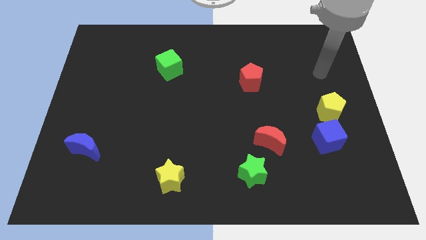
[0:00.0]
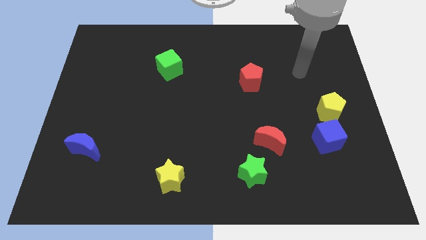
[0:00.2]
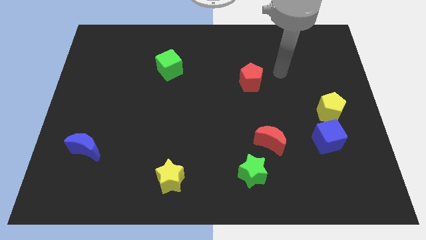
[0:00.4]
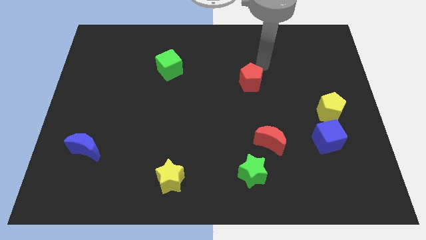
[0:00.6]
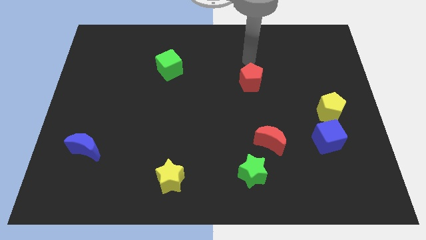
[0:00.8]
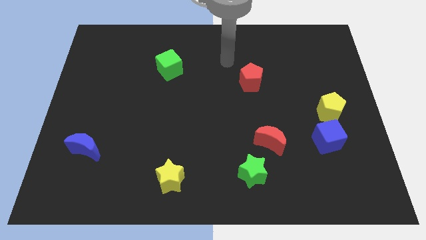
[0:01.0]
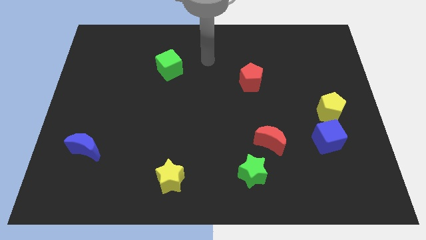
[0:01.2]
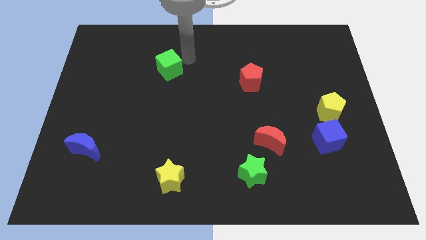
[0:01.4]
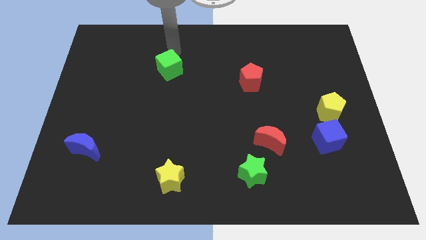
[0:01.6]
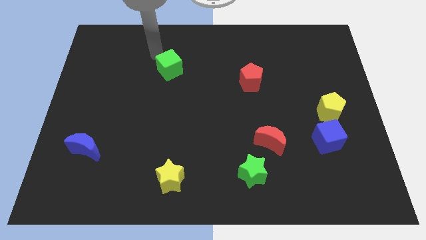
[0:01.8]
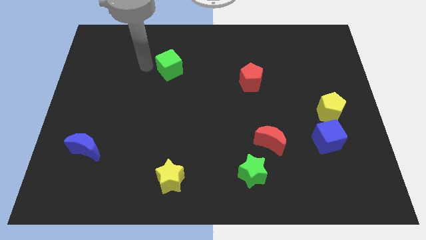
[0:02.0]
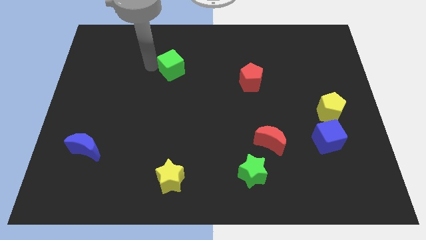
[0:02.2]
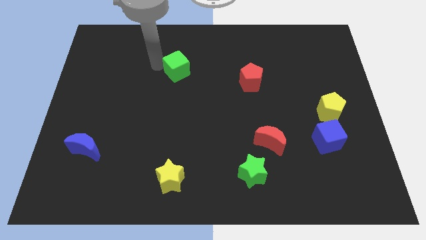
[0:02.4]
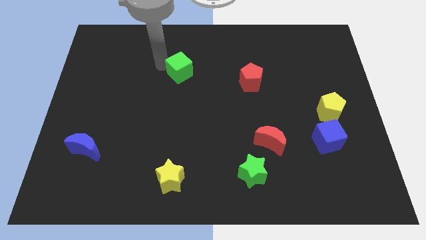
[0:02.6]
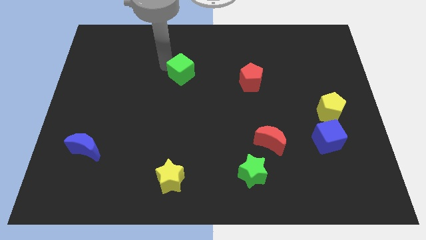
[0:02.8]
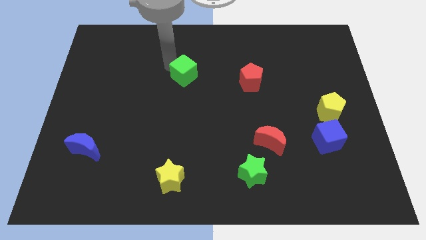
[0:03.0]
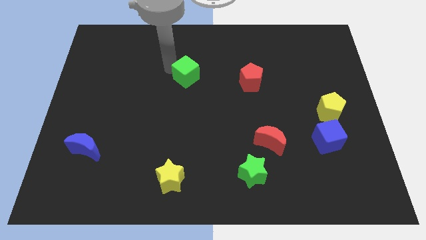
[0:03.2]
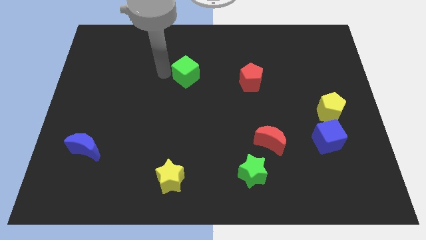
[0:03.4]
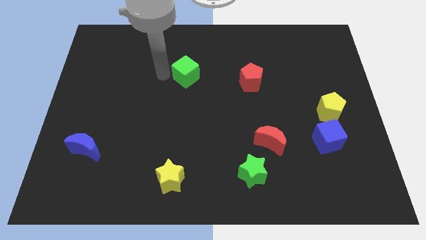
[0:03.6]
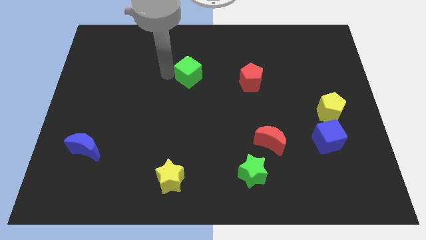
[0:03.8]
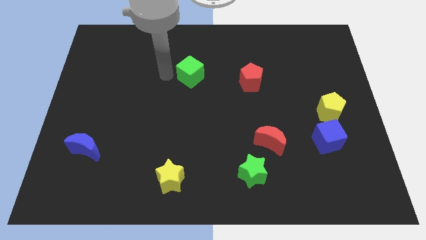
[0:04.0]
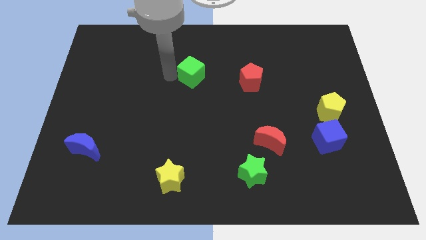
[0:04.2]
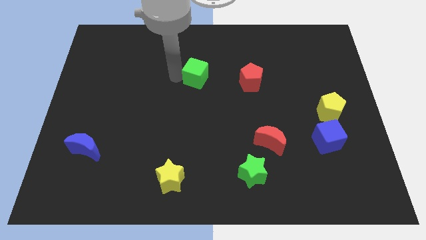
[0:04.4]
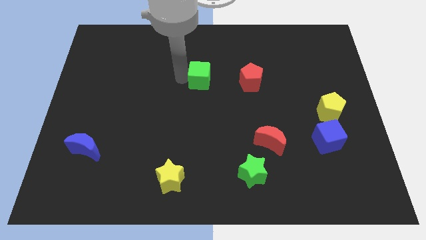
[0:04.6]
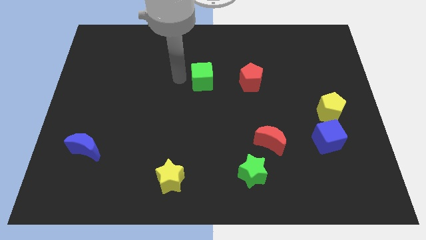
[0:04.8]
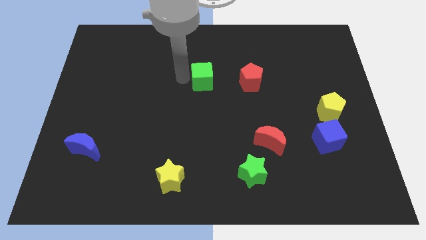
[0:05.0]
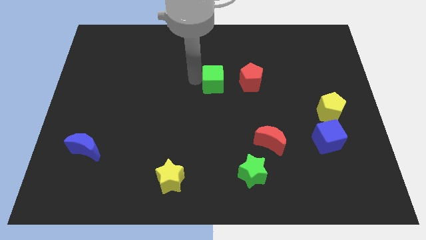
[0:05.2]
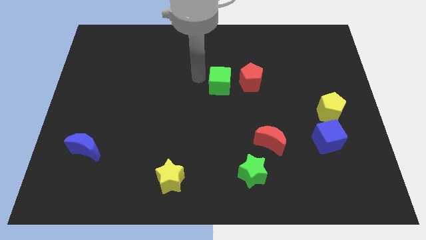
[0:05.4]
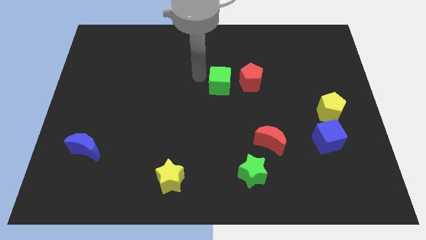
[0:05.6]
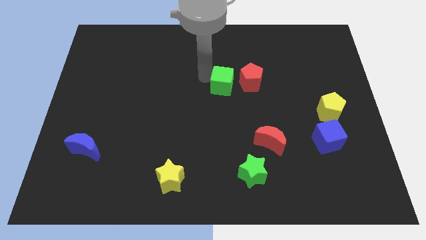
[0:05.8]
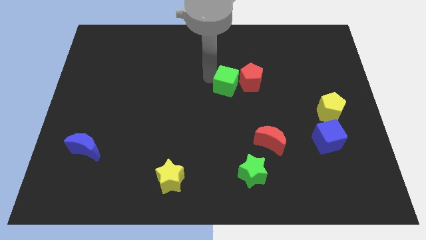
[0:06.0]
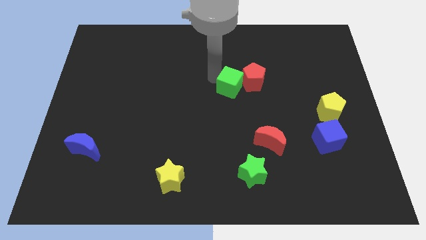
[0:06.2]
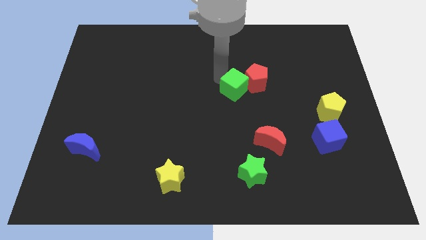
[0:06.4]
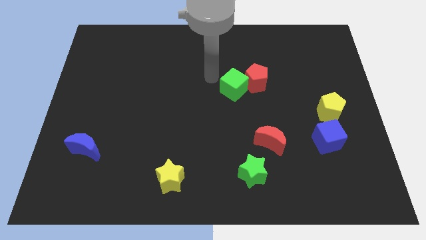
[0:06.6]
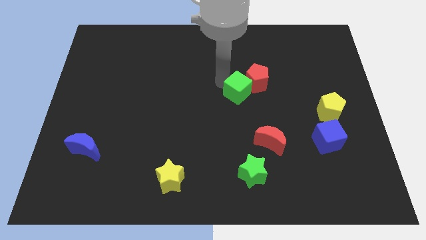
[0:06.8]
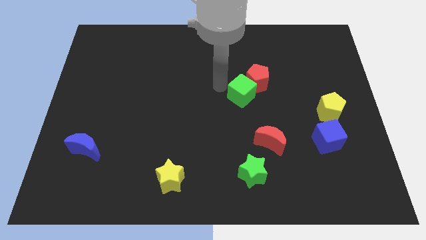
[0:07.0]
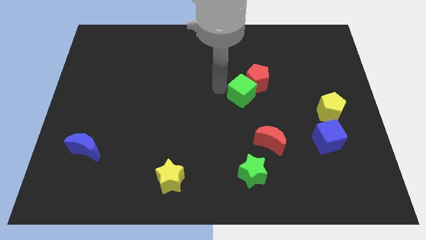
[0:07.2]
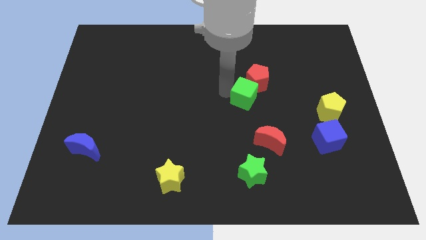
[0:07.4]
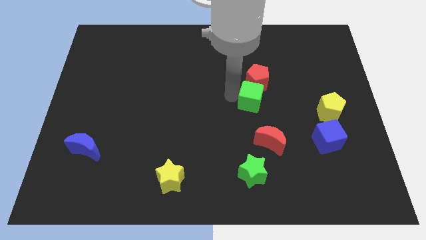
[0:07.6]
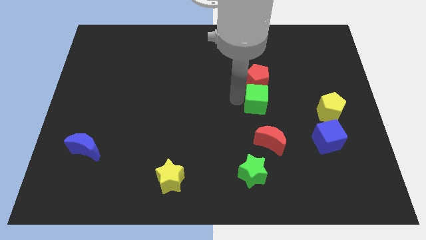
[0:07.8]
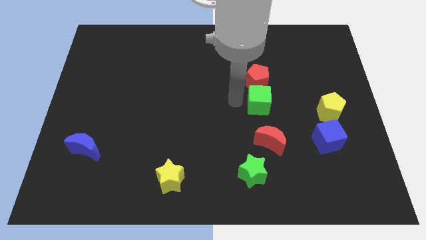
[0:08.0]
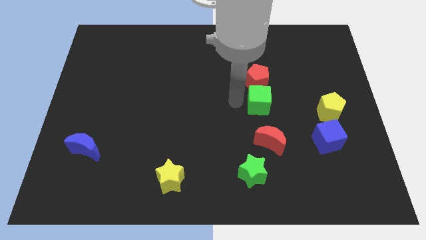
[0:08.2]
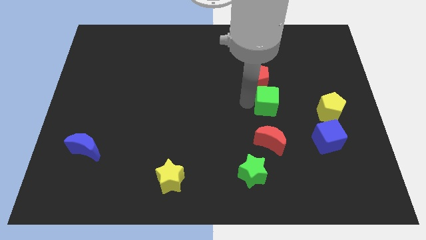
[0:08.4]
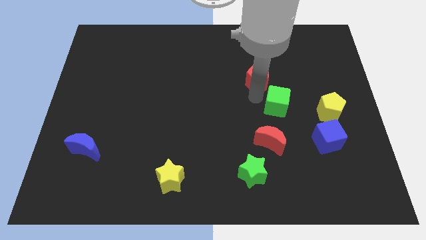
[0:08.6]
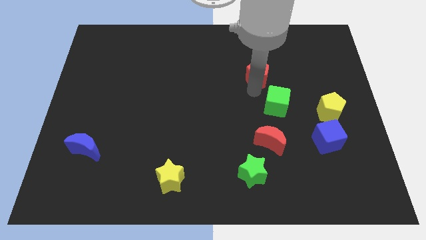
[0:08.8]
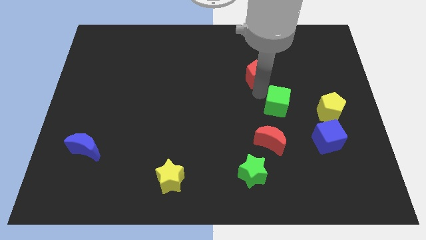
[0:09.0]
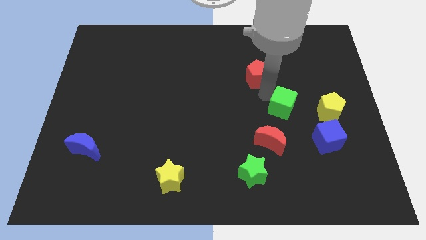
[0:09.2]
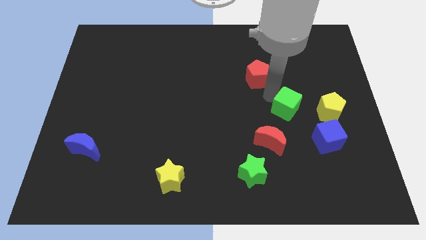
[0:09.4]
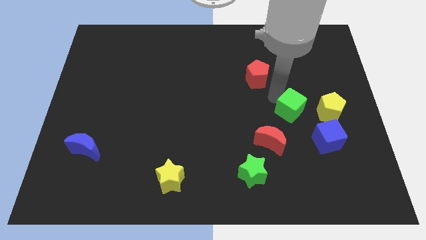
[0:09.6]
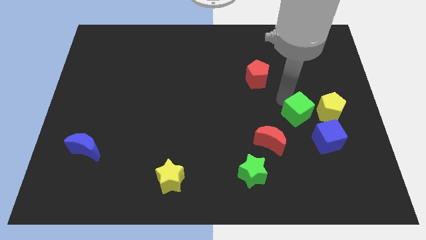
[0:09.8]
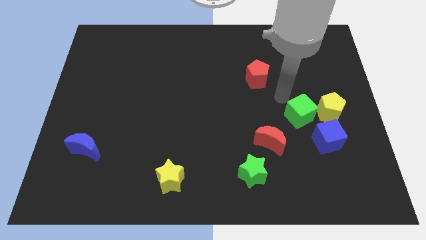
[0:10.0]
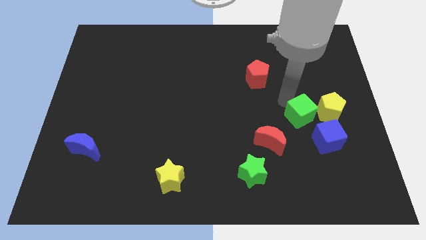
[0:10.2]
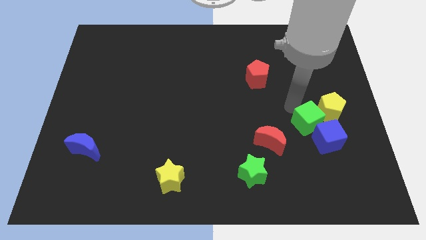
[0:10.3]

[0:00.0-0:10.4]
push the green cube towards the blue cube

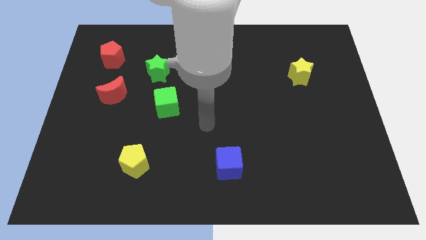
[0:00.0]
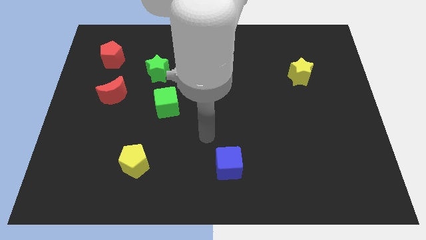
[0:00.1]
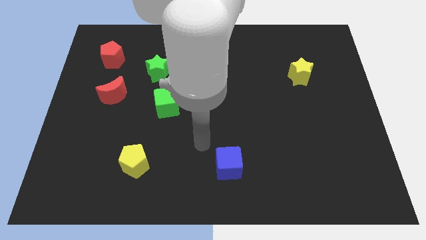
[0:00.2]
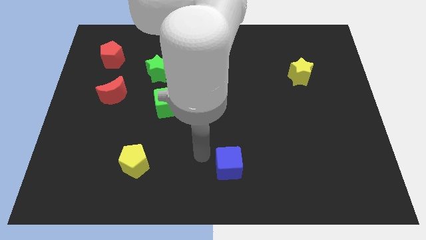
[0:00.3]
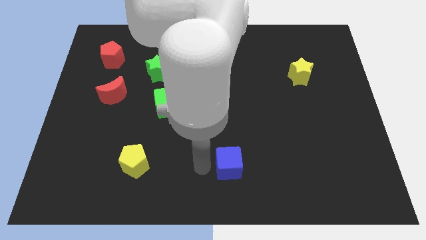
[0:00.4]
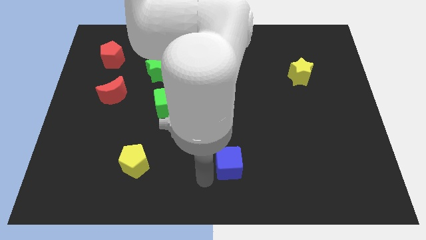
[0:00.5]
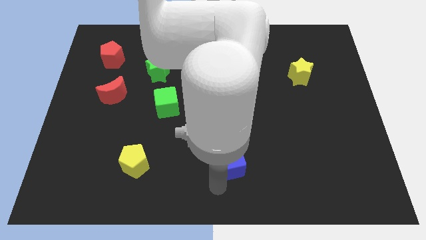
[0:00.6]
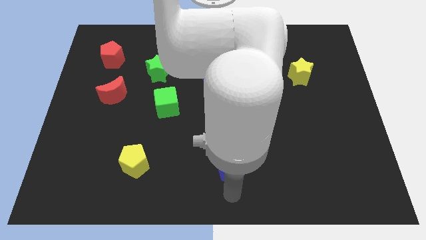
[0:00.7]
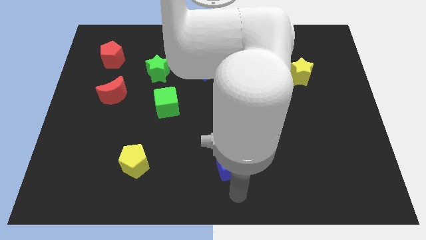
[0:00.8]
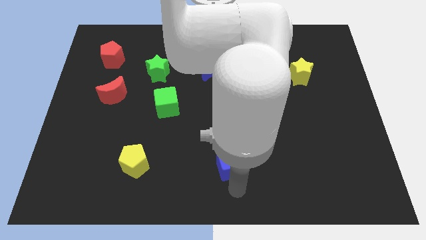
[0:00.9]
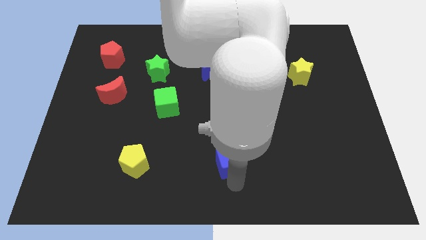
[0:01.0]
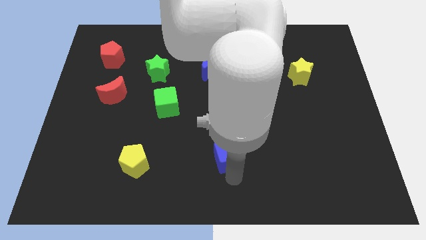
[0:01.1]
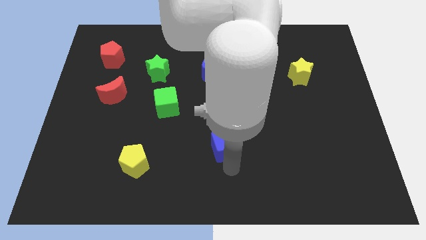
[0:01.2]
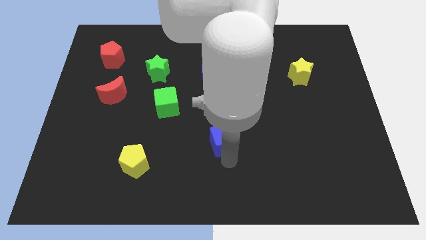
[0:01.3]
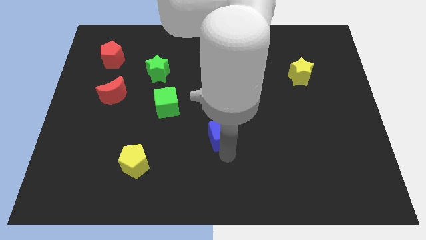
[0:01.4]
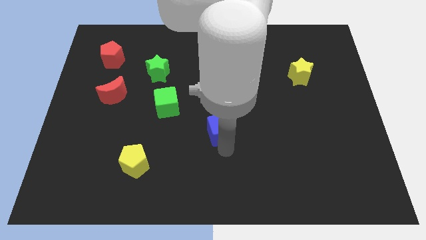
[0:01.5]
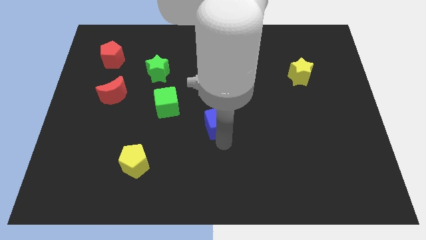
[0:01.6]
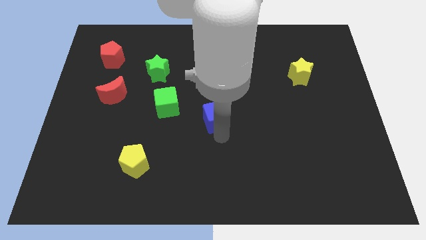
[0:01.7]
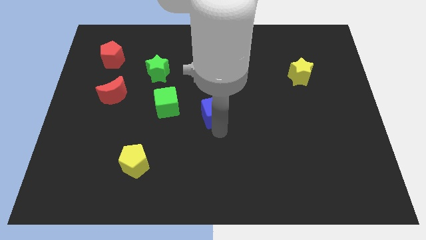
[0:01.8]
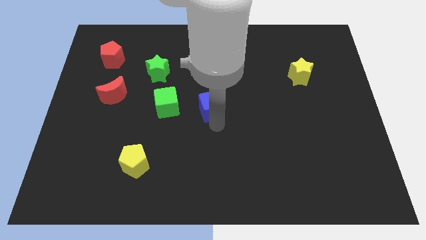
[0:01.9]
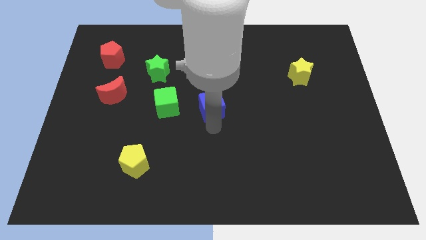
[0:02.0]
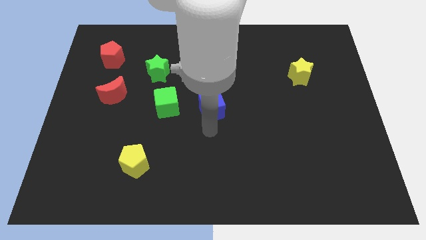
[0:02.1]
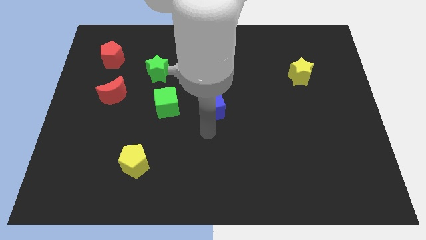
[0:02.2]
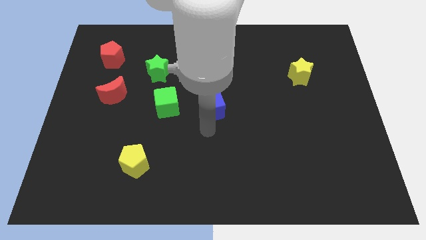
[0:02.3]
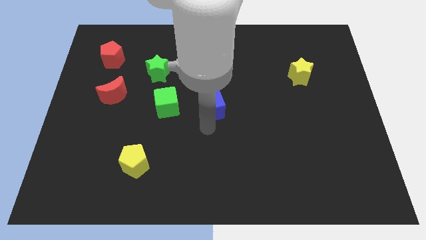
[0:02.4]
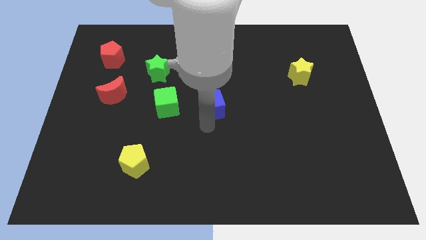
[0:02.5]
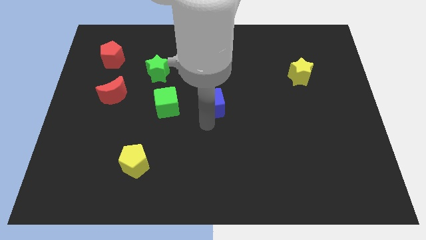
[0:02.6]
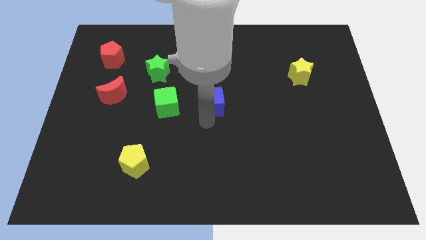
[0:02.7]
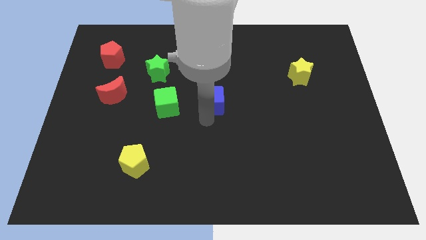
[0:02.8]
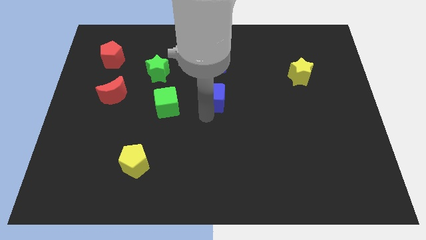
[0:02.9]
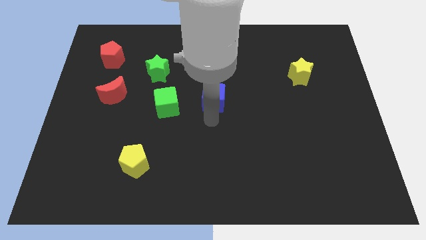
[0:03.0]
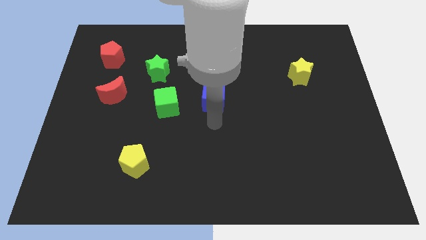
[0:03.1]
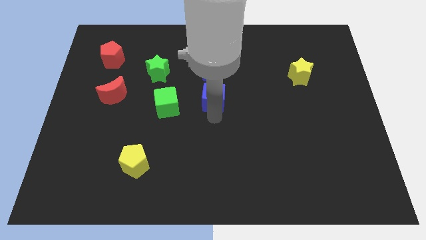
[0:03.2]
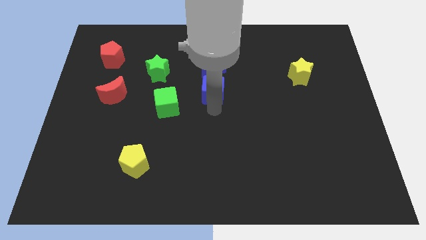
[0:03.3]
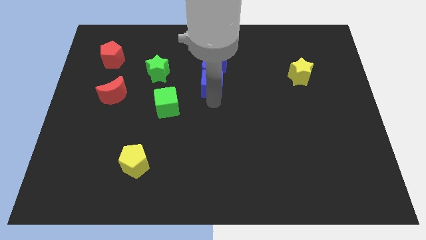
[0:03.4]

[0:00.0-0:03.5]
move the blue cube towards the blue moon
